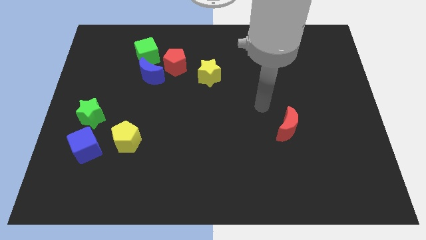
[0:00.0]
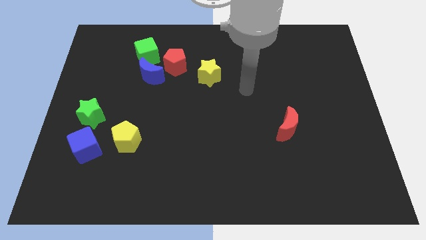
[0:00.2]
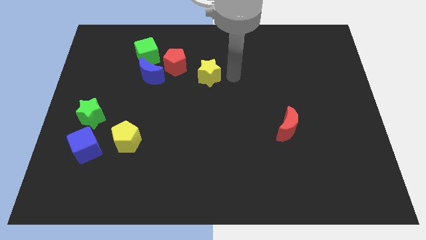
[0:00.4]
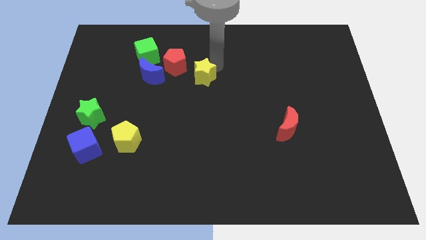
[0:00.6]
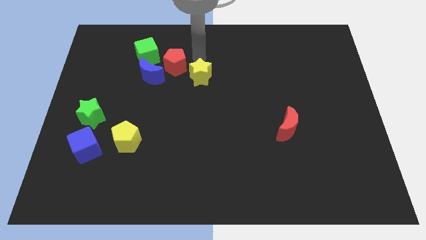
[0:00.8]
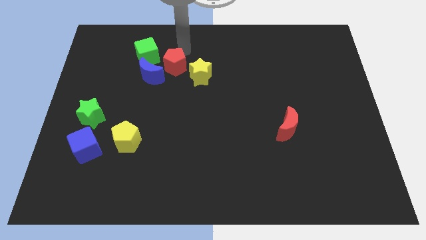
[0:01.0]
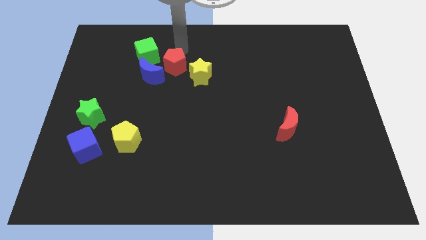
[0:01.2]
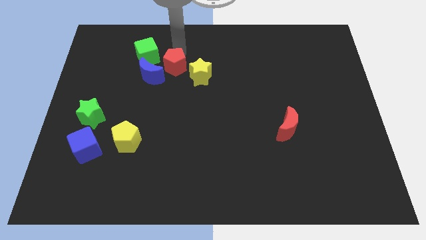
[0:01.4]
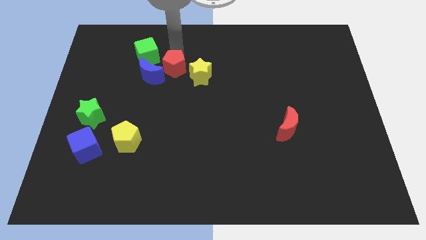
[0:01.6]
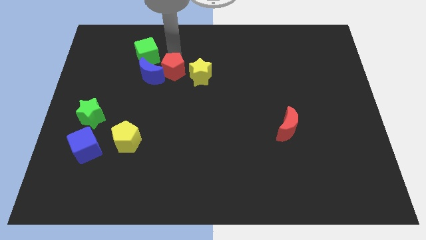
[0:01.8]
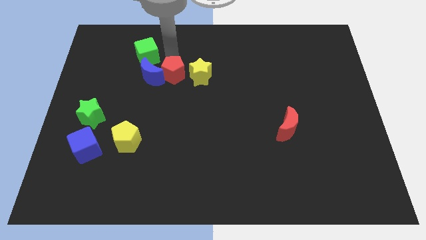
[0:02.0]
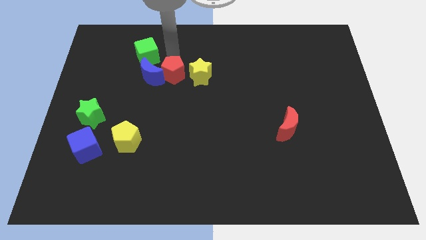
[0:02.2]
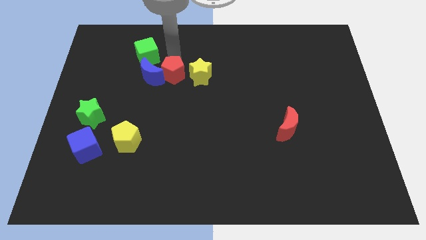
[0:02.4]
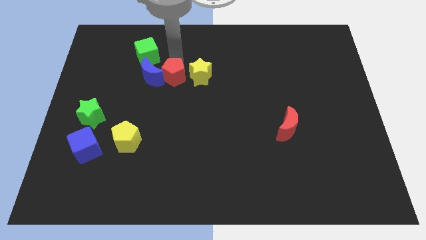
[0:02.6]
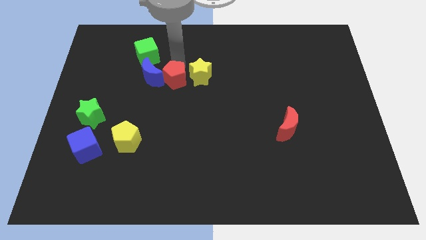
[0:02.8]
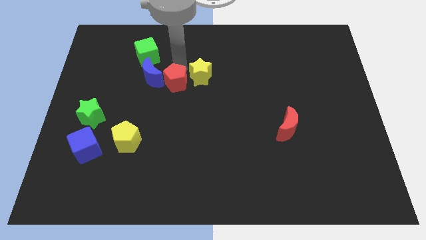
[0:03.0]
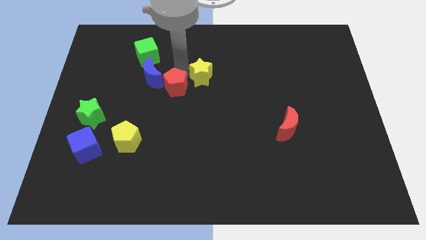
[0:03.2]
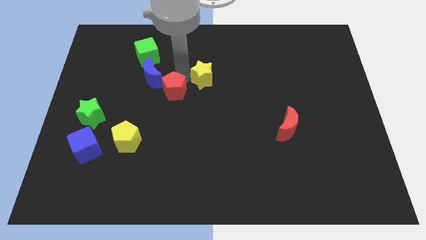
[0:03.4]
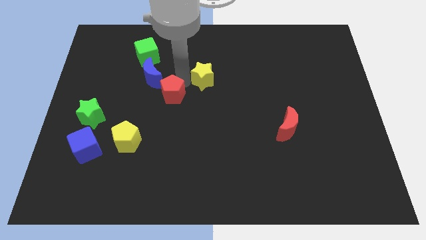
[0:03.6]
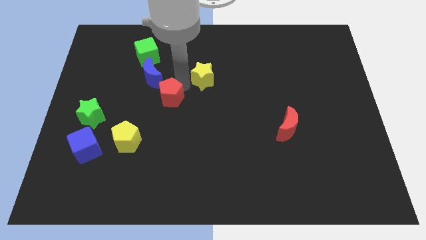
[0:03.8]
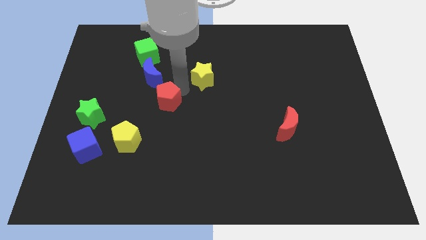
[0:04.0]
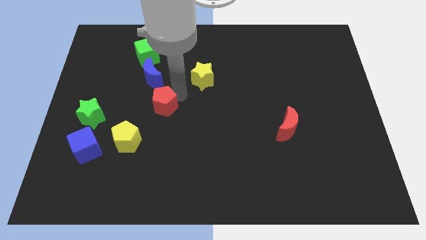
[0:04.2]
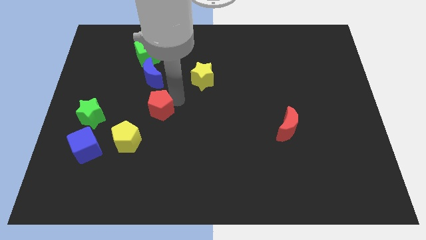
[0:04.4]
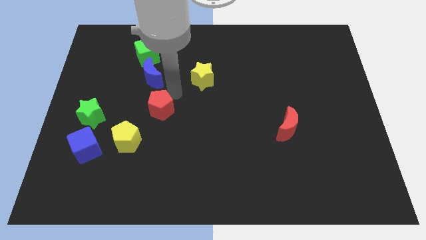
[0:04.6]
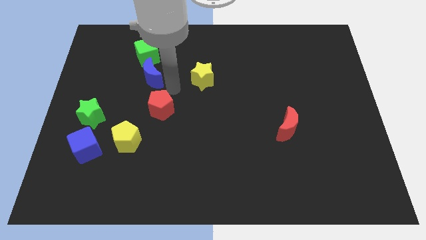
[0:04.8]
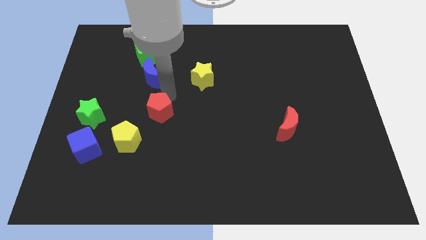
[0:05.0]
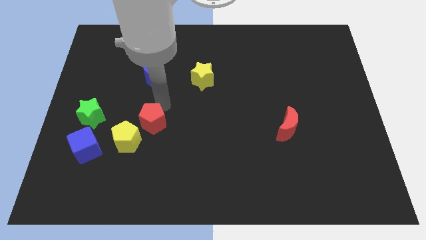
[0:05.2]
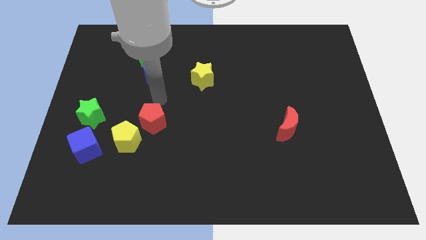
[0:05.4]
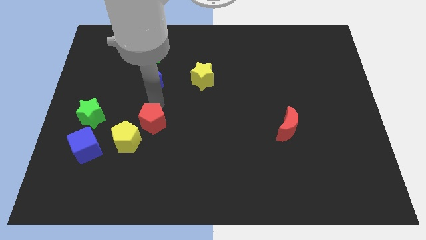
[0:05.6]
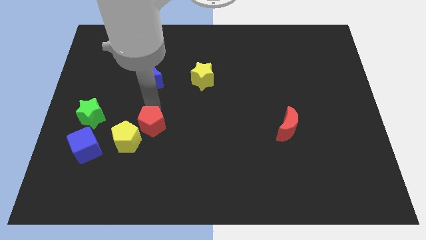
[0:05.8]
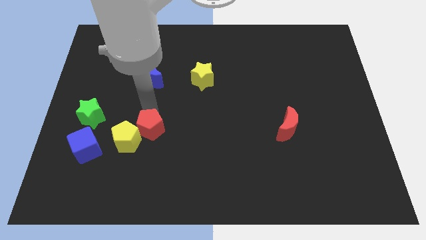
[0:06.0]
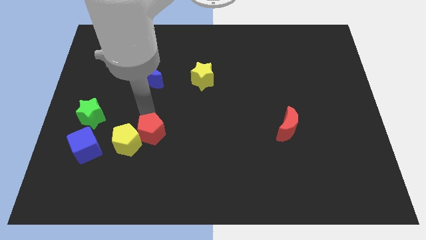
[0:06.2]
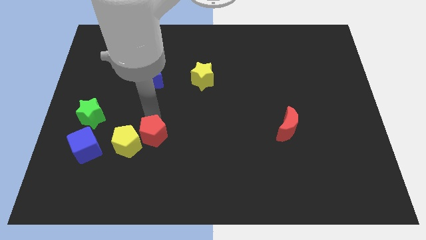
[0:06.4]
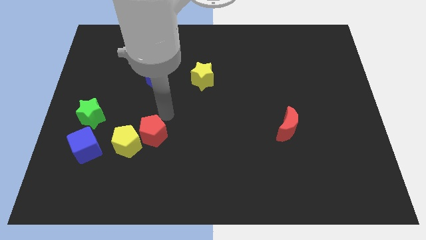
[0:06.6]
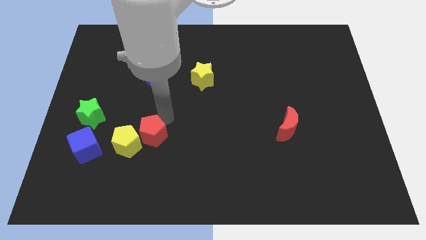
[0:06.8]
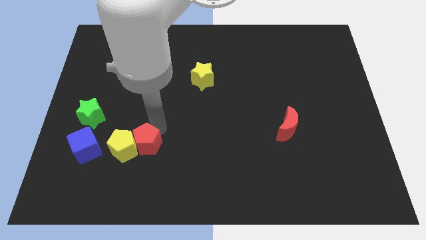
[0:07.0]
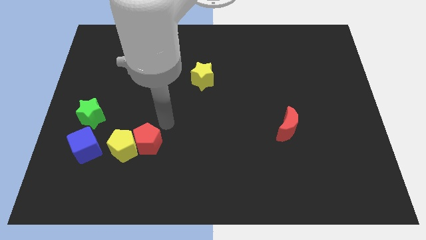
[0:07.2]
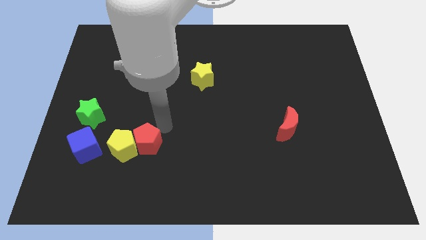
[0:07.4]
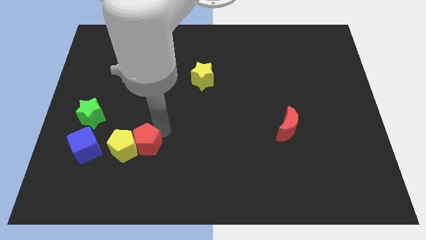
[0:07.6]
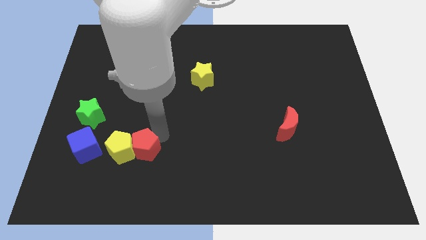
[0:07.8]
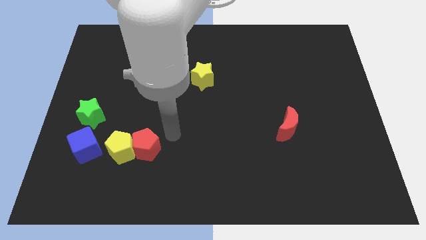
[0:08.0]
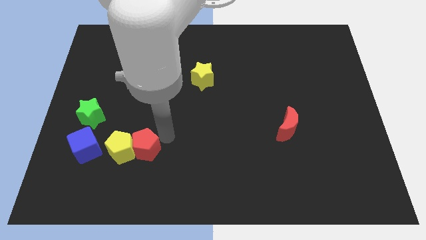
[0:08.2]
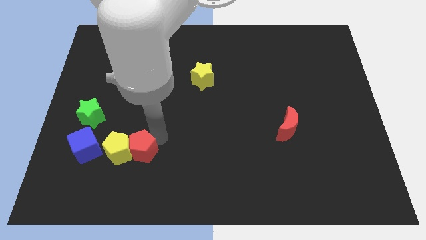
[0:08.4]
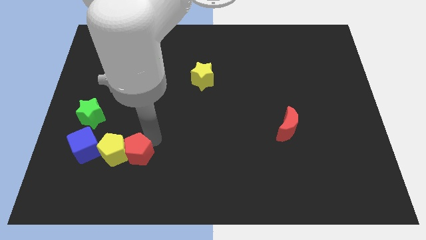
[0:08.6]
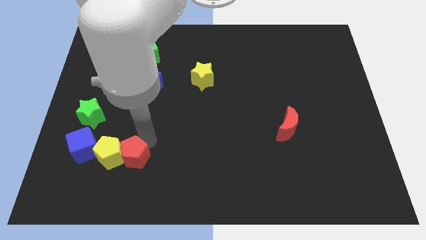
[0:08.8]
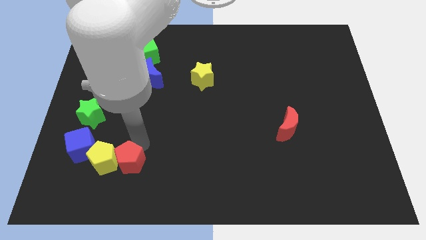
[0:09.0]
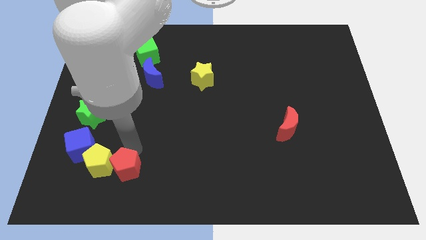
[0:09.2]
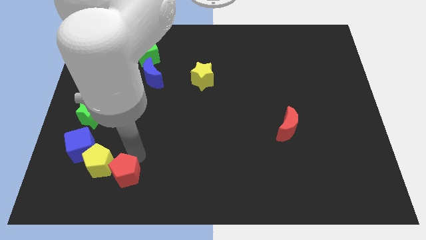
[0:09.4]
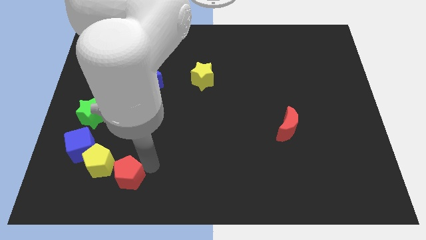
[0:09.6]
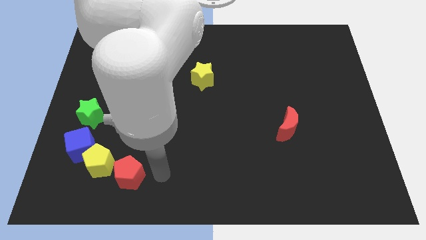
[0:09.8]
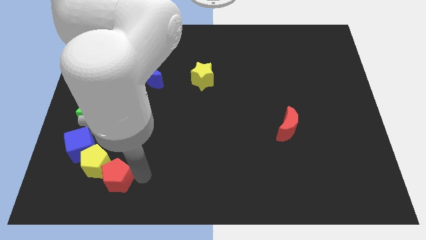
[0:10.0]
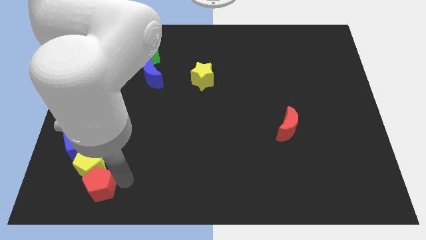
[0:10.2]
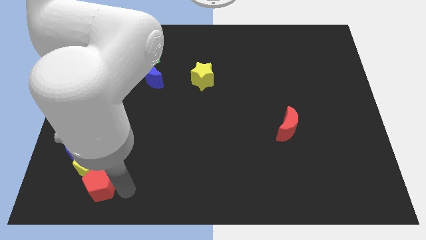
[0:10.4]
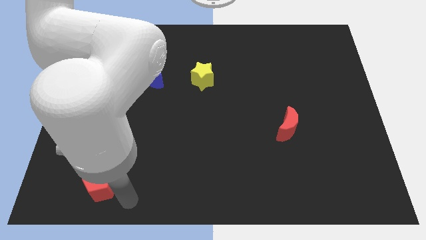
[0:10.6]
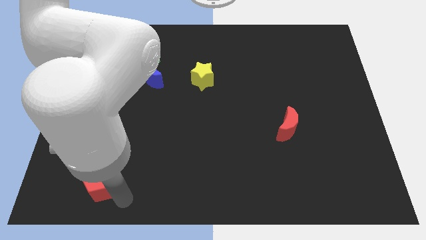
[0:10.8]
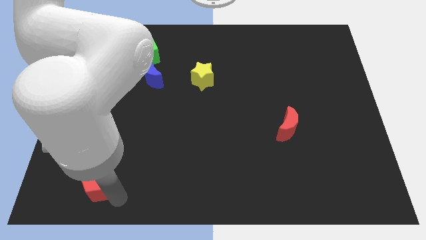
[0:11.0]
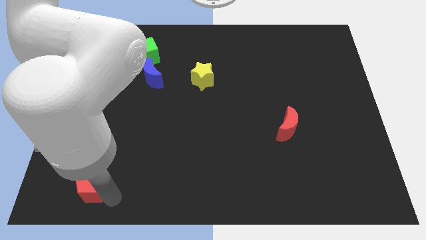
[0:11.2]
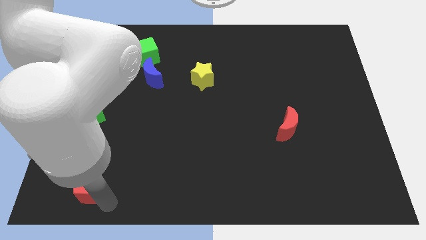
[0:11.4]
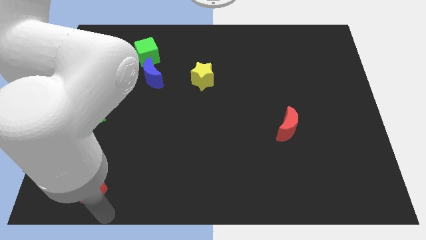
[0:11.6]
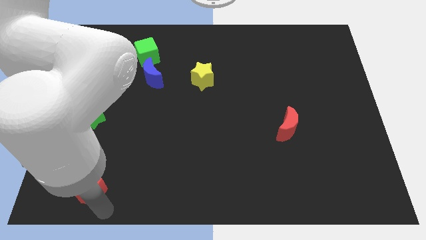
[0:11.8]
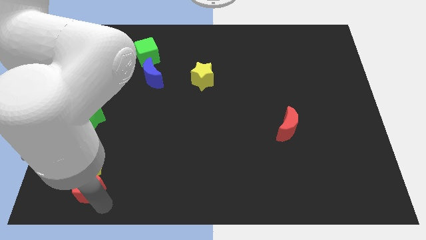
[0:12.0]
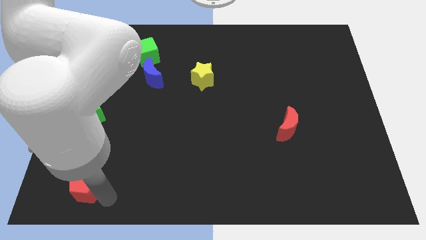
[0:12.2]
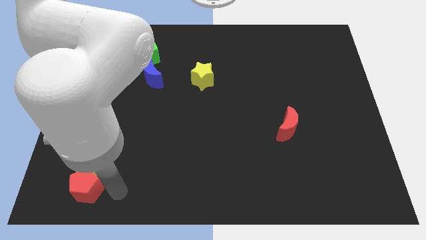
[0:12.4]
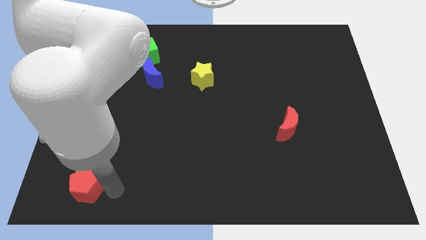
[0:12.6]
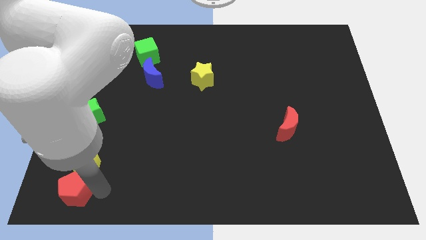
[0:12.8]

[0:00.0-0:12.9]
move the red pentagon to the lower left corner
